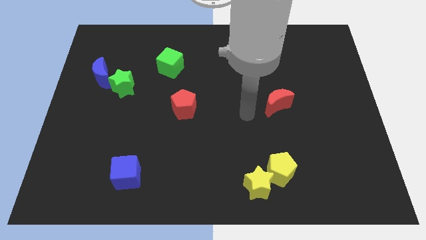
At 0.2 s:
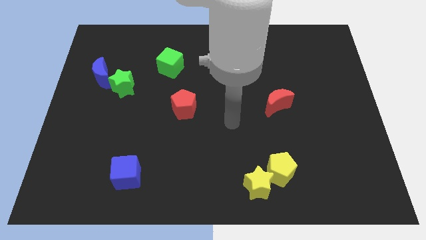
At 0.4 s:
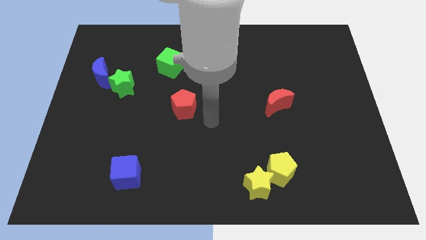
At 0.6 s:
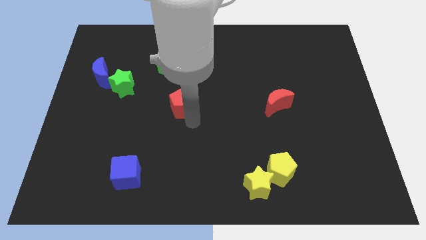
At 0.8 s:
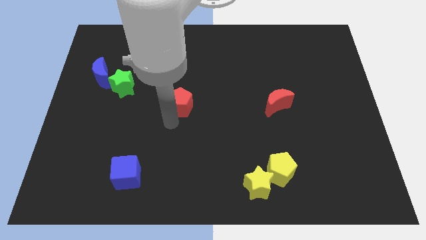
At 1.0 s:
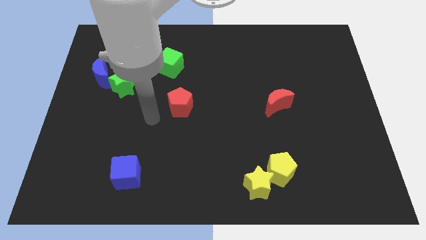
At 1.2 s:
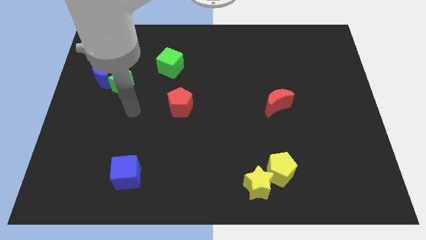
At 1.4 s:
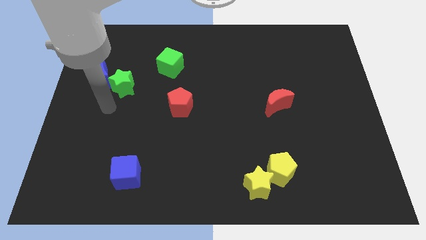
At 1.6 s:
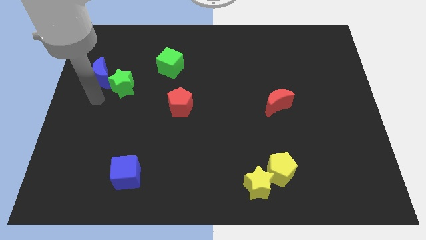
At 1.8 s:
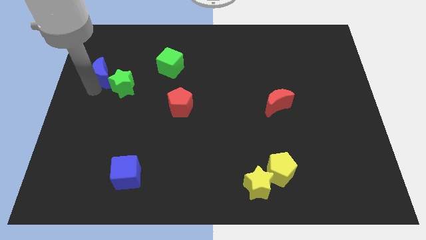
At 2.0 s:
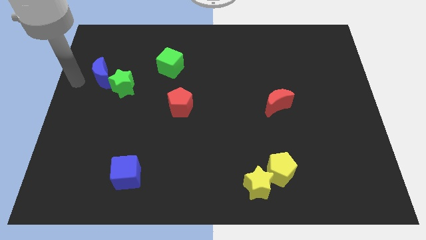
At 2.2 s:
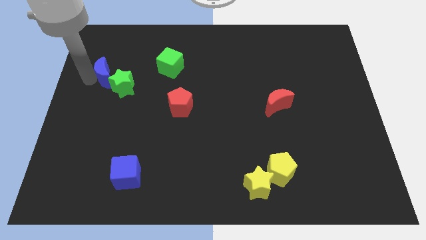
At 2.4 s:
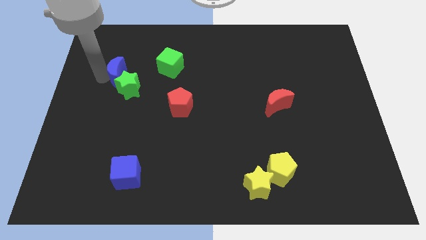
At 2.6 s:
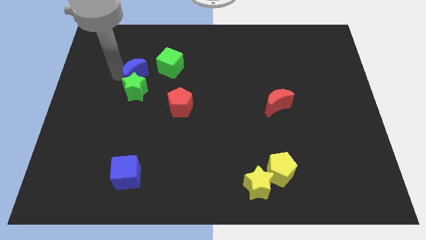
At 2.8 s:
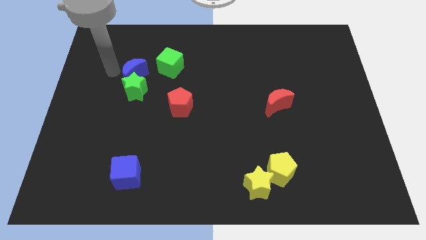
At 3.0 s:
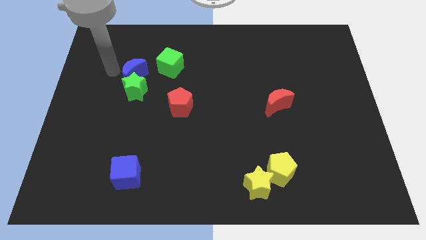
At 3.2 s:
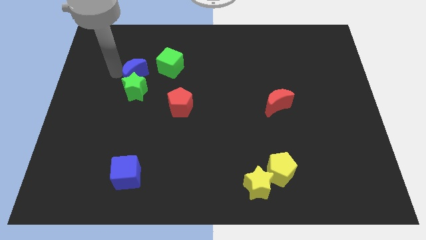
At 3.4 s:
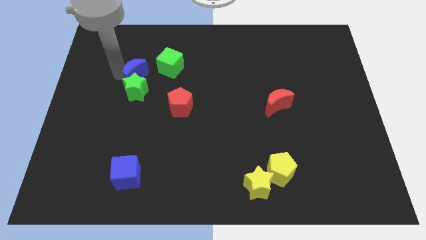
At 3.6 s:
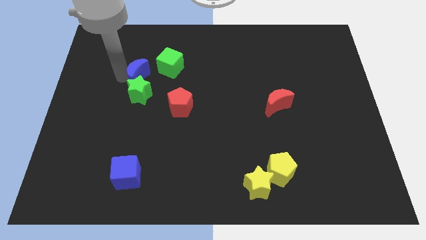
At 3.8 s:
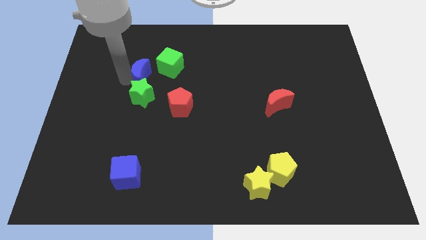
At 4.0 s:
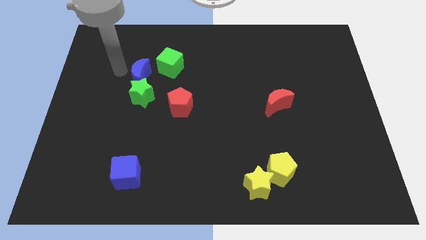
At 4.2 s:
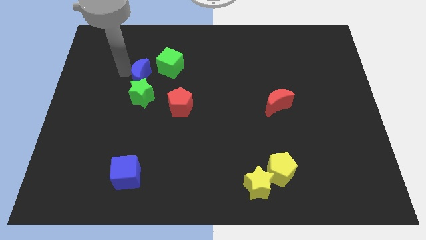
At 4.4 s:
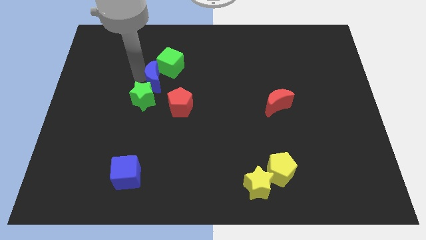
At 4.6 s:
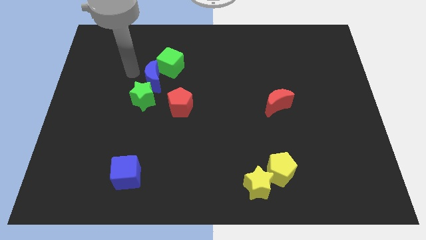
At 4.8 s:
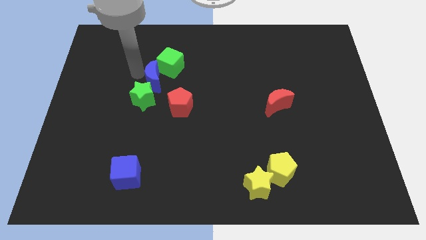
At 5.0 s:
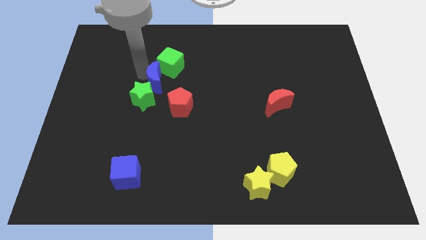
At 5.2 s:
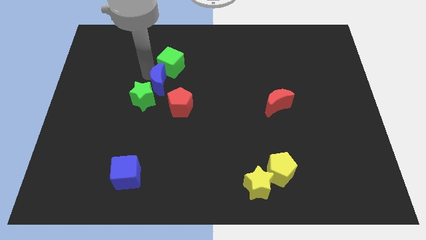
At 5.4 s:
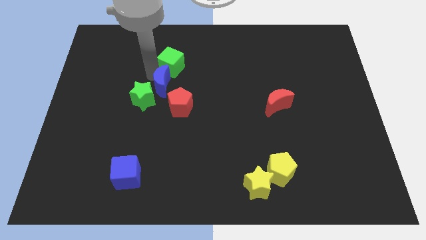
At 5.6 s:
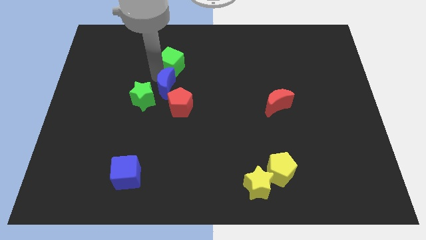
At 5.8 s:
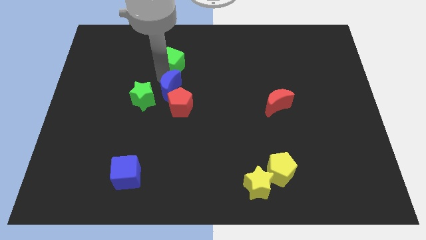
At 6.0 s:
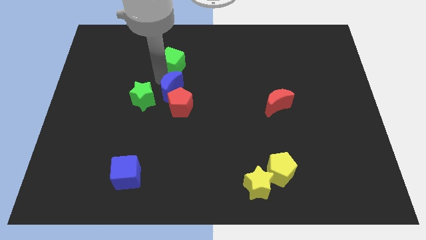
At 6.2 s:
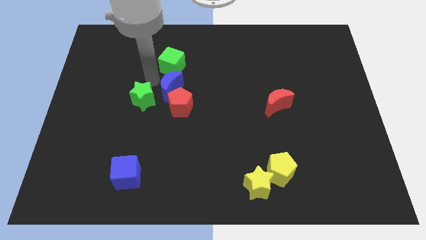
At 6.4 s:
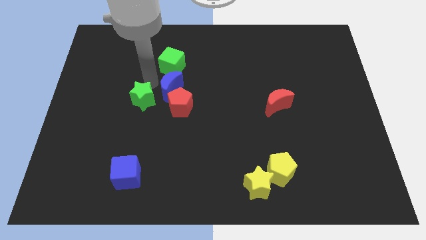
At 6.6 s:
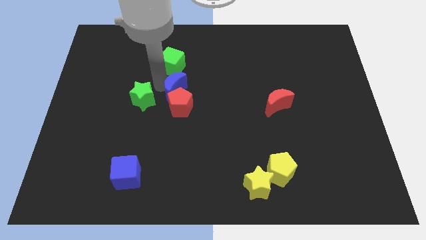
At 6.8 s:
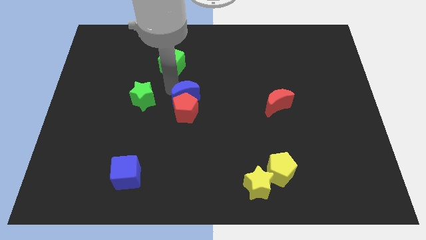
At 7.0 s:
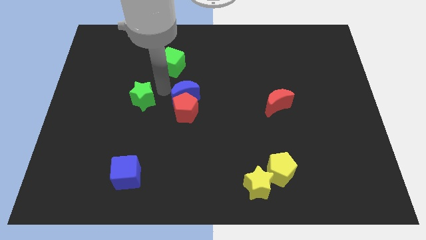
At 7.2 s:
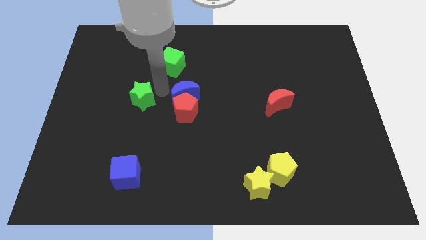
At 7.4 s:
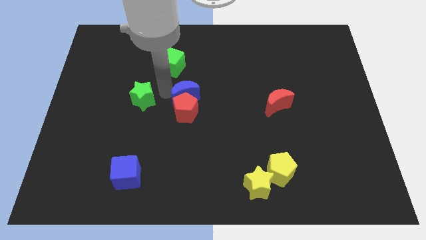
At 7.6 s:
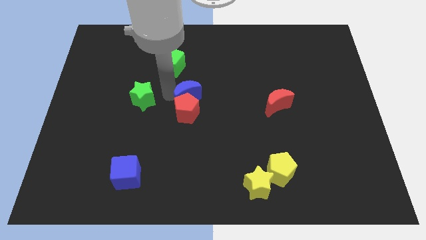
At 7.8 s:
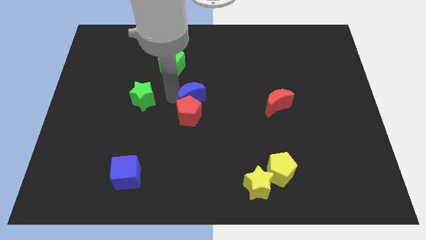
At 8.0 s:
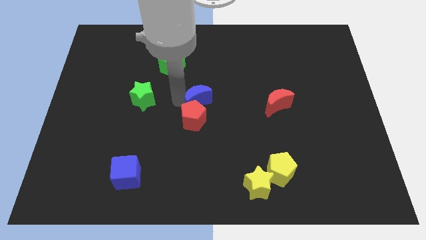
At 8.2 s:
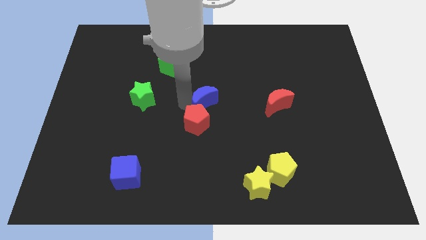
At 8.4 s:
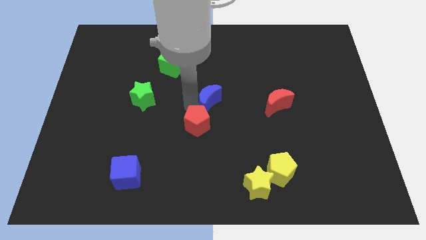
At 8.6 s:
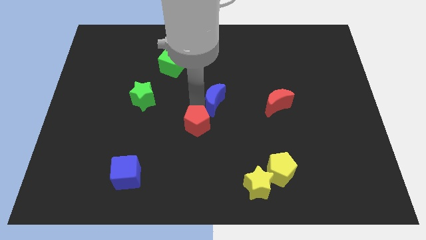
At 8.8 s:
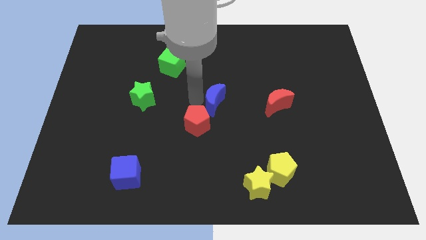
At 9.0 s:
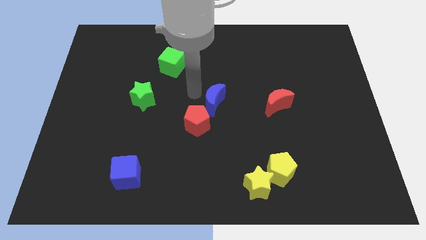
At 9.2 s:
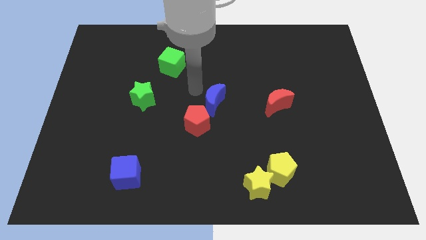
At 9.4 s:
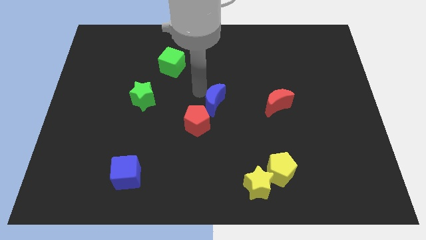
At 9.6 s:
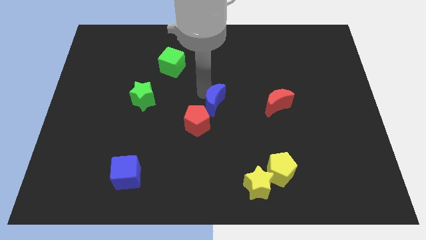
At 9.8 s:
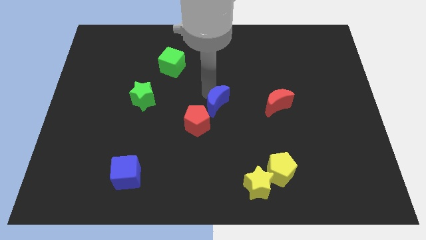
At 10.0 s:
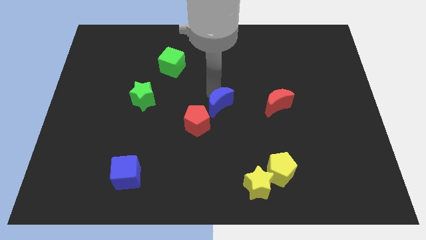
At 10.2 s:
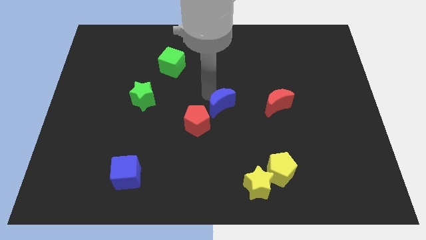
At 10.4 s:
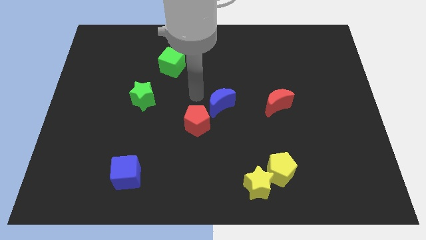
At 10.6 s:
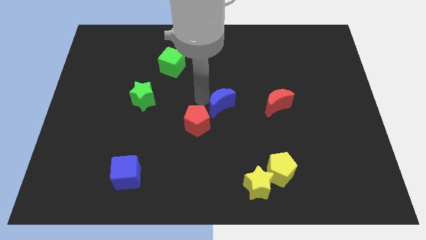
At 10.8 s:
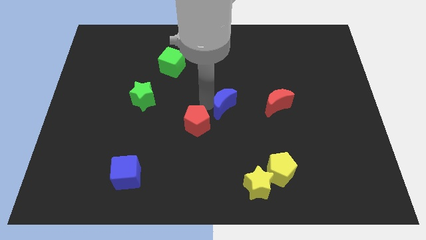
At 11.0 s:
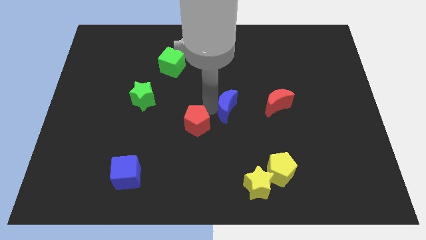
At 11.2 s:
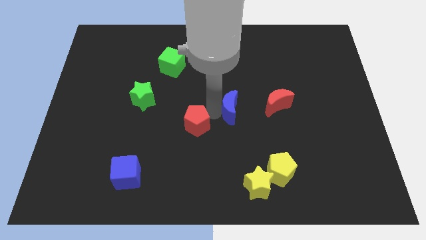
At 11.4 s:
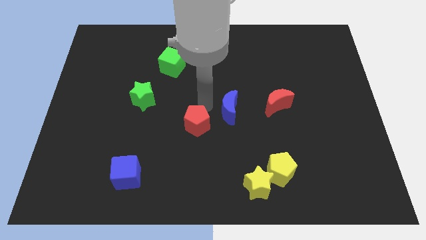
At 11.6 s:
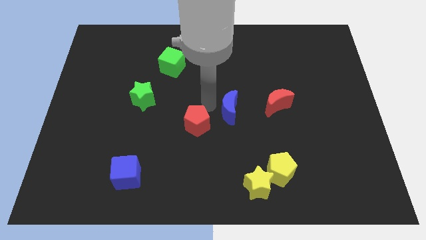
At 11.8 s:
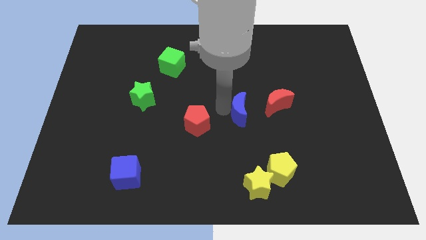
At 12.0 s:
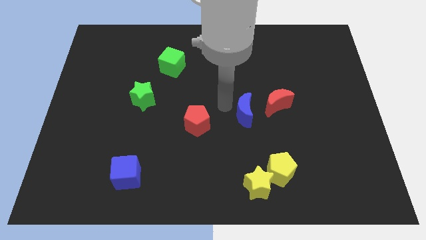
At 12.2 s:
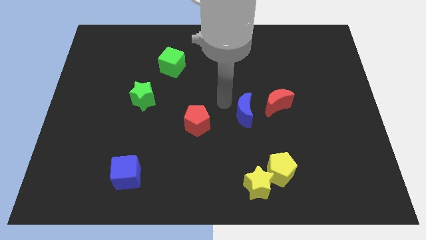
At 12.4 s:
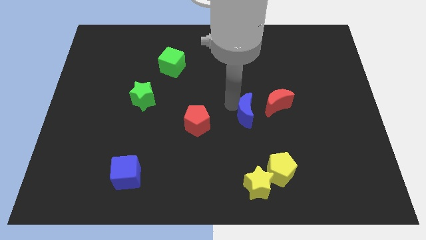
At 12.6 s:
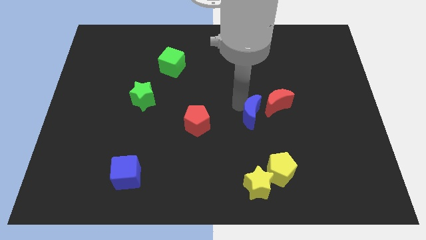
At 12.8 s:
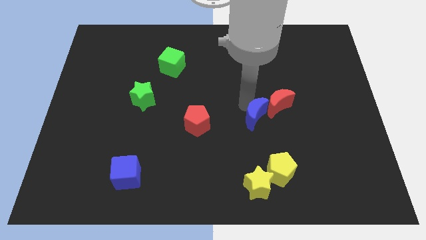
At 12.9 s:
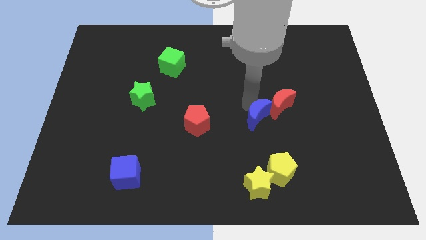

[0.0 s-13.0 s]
put the blue moon to the top side of the yellow pentagon

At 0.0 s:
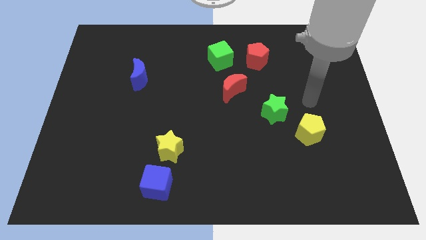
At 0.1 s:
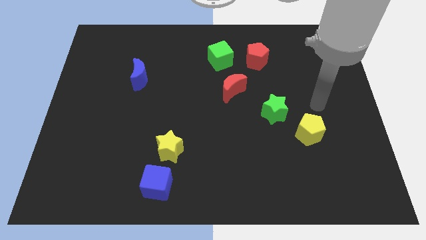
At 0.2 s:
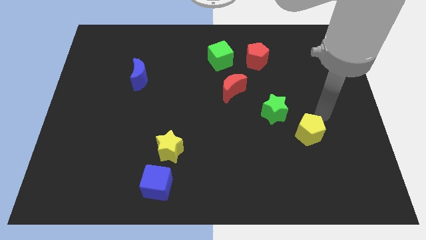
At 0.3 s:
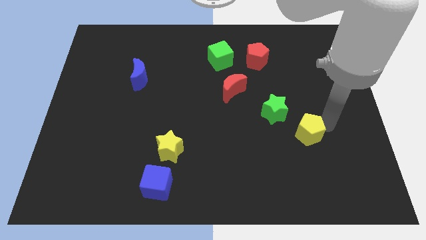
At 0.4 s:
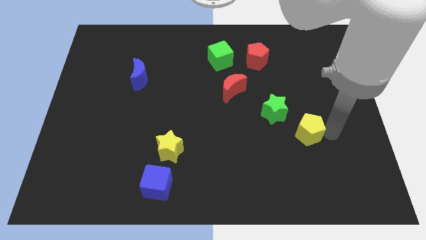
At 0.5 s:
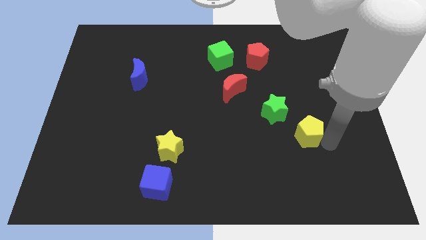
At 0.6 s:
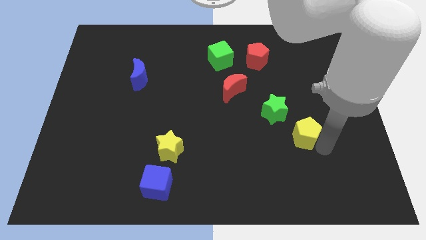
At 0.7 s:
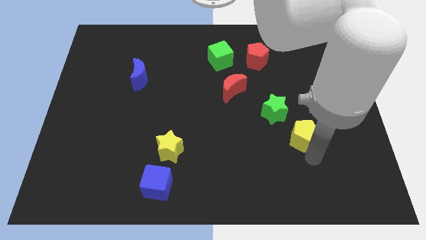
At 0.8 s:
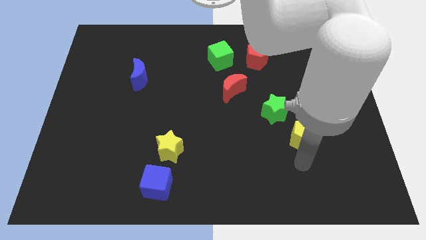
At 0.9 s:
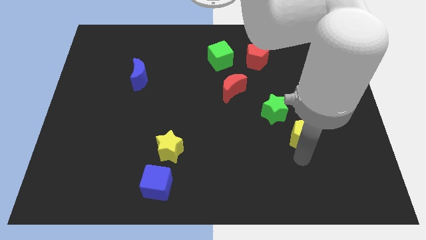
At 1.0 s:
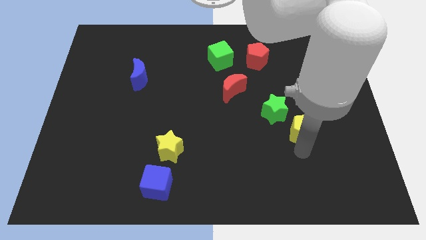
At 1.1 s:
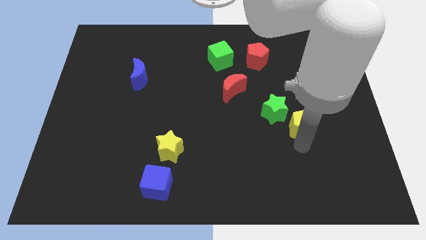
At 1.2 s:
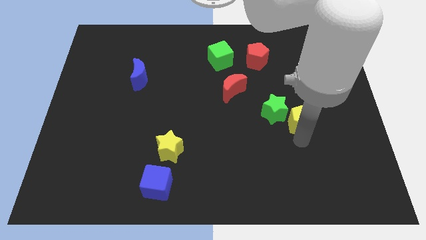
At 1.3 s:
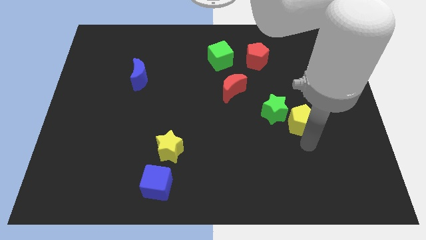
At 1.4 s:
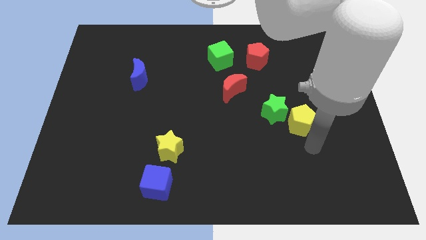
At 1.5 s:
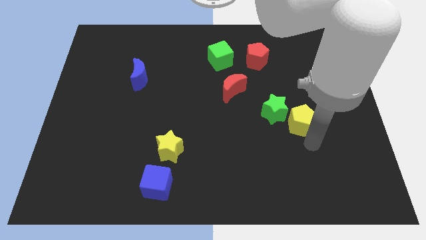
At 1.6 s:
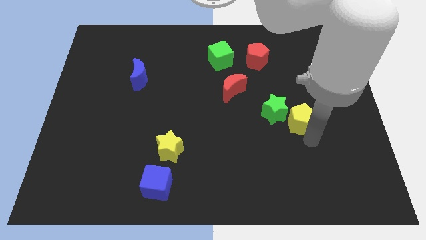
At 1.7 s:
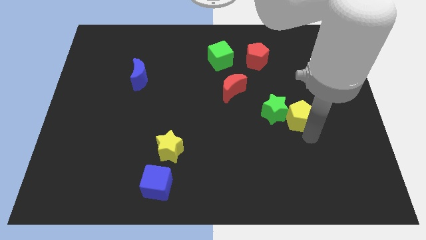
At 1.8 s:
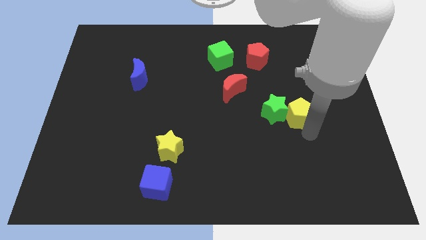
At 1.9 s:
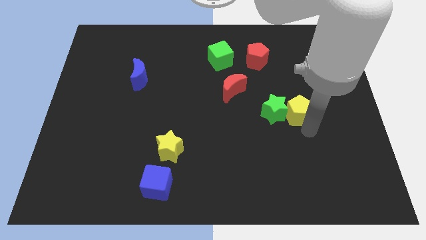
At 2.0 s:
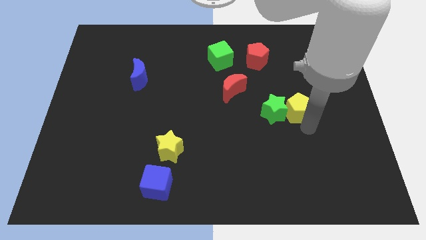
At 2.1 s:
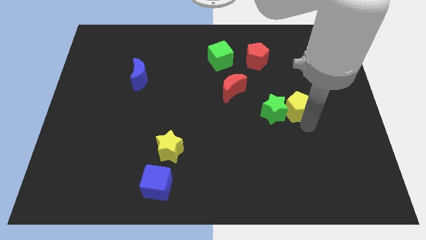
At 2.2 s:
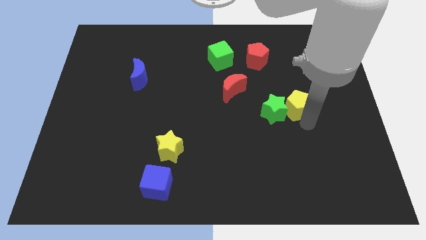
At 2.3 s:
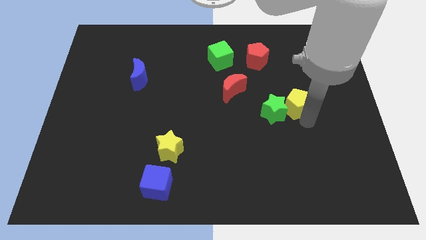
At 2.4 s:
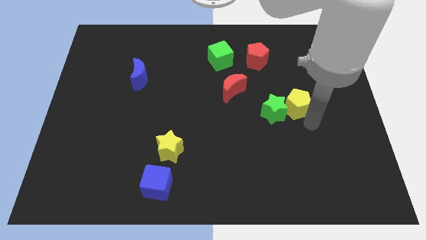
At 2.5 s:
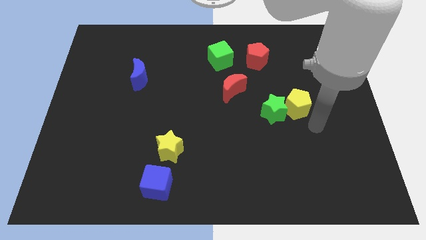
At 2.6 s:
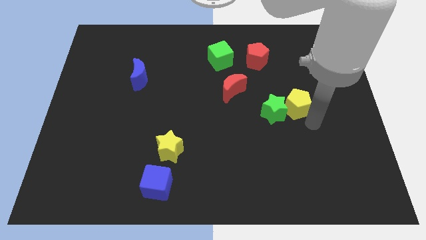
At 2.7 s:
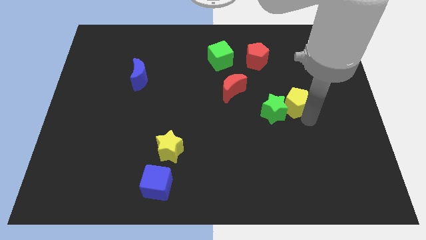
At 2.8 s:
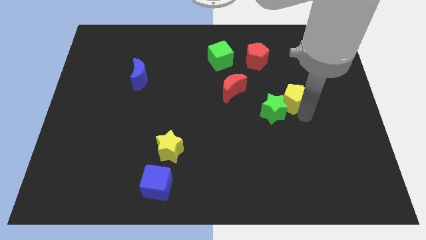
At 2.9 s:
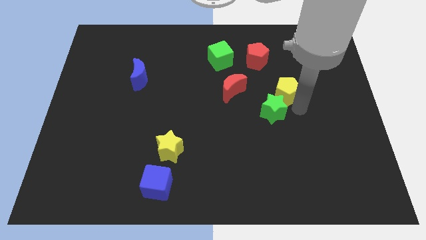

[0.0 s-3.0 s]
push the yellow pentagon above the green star
